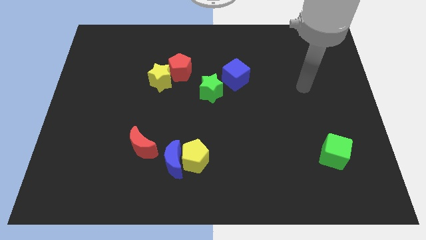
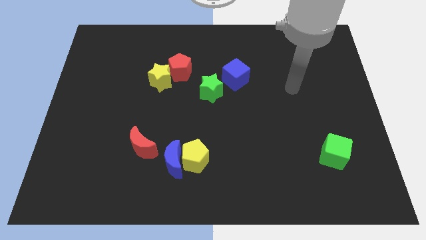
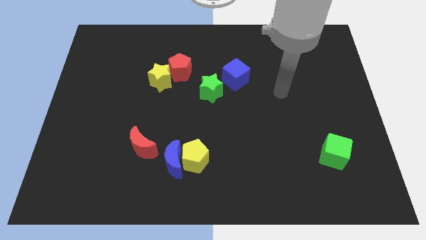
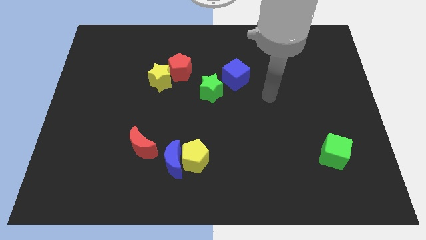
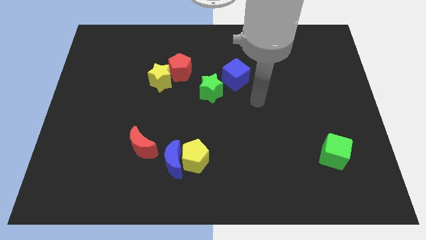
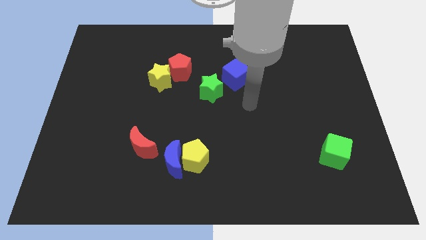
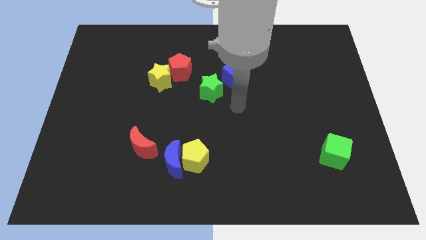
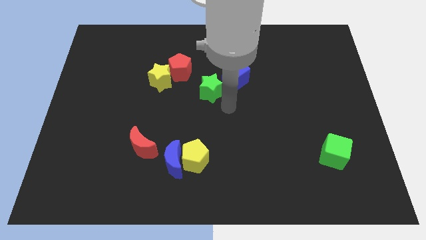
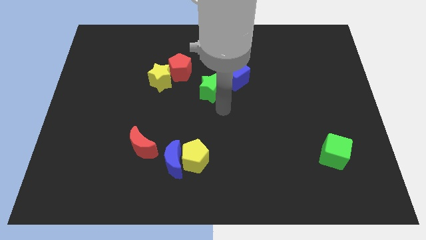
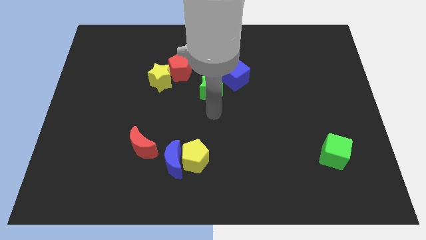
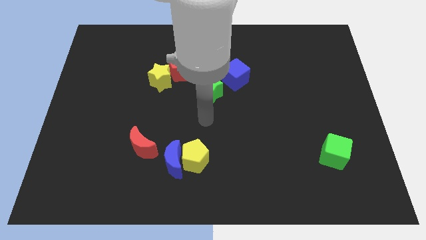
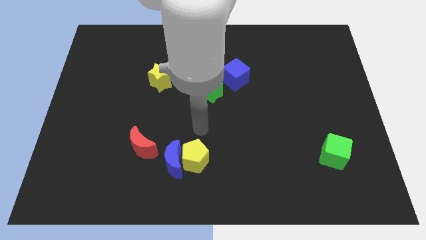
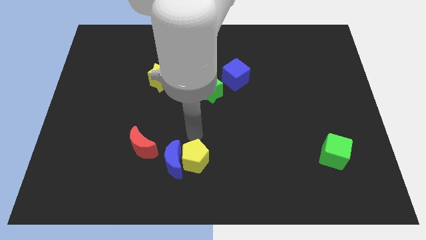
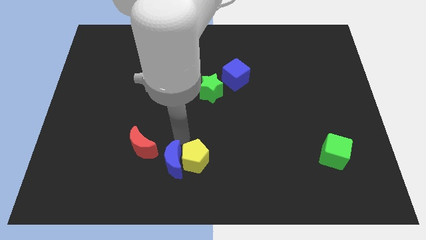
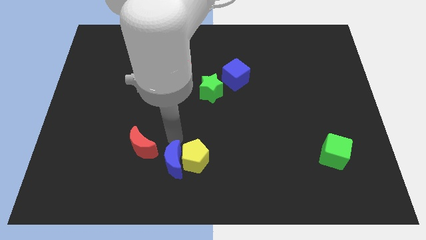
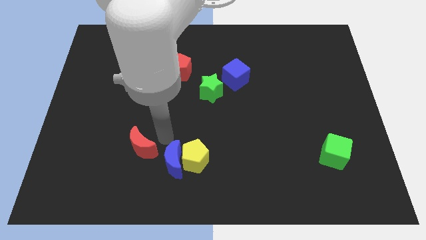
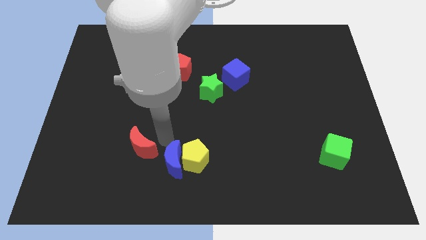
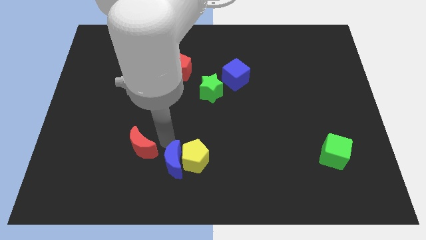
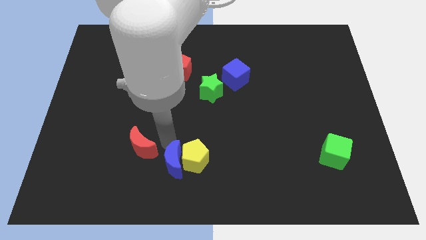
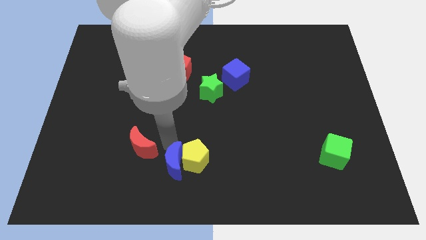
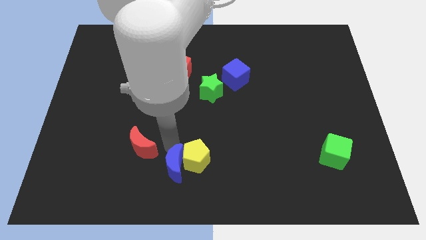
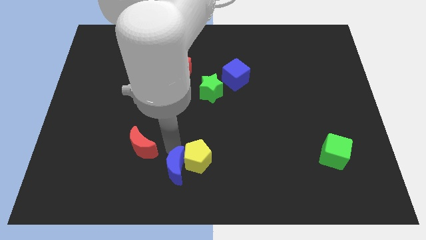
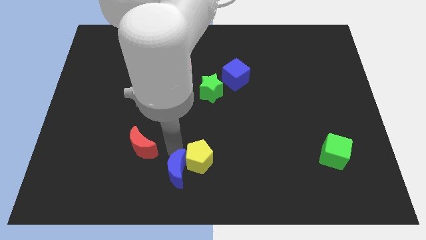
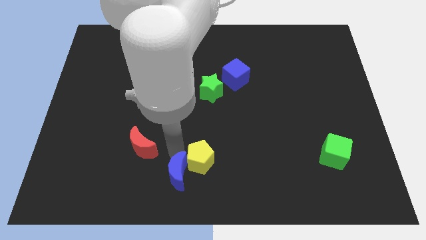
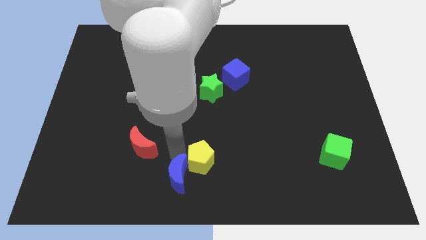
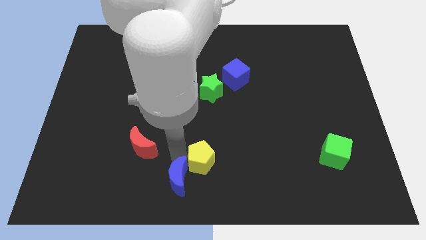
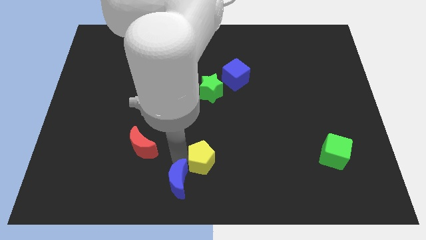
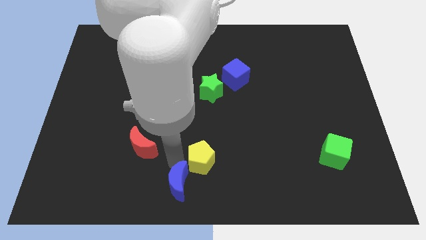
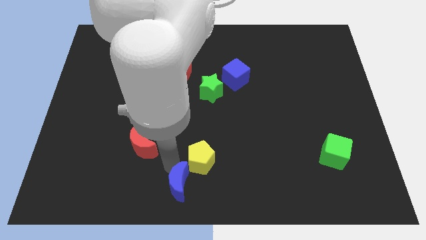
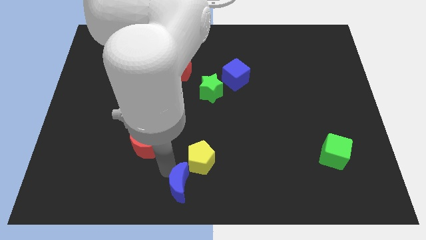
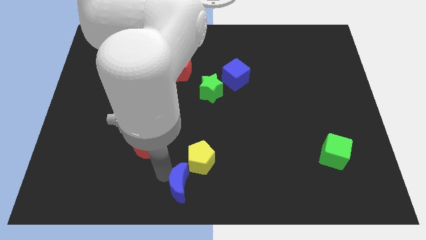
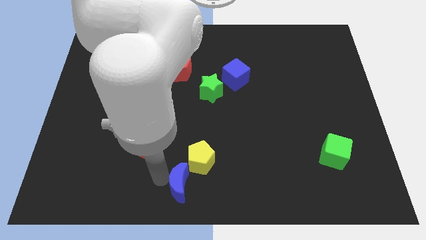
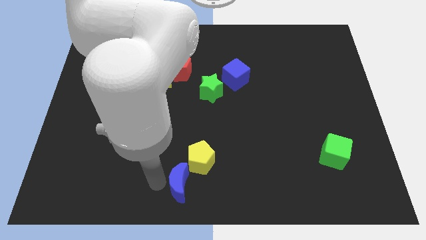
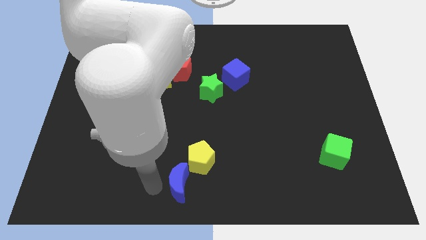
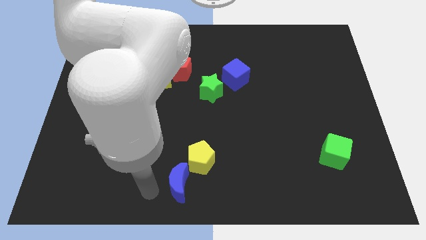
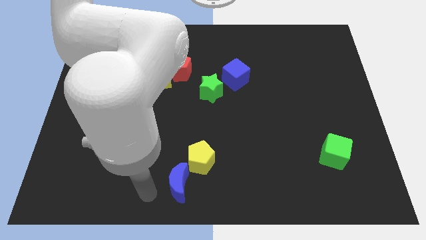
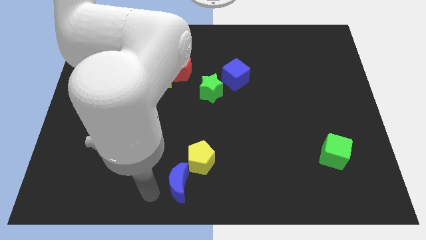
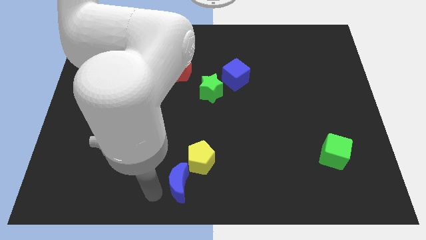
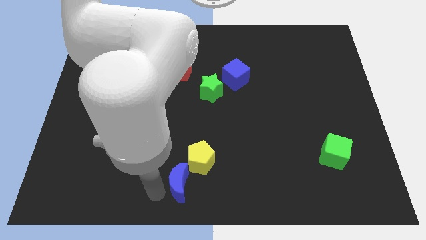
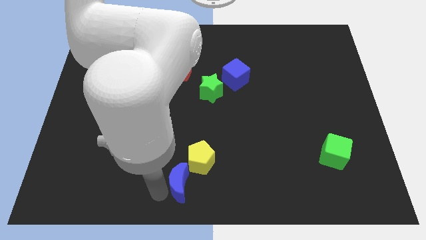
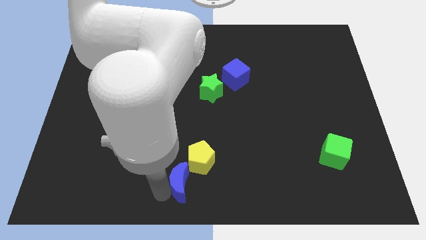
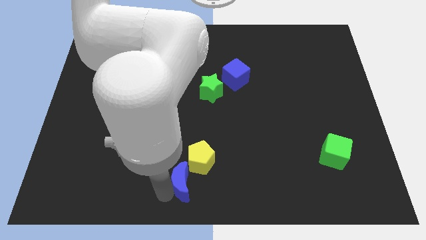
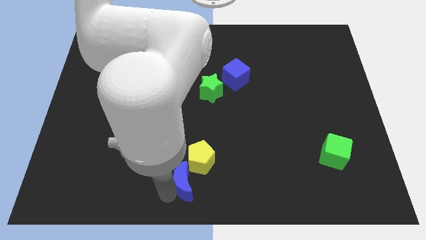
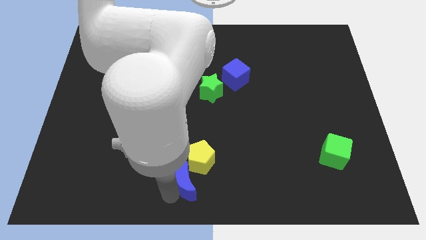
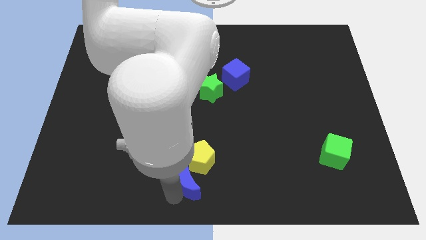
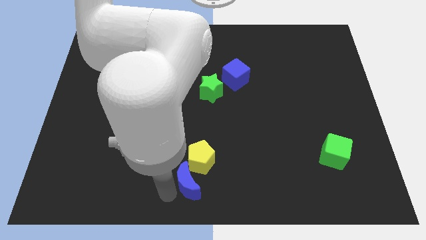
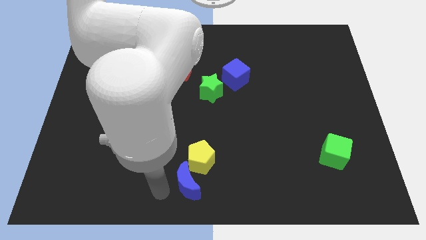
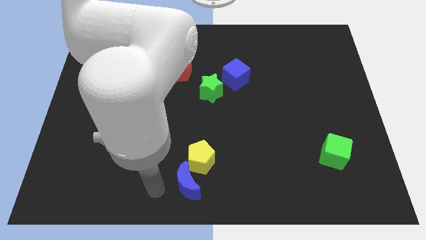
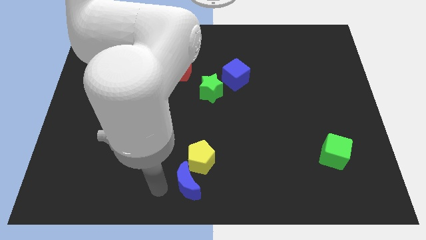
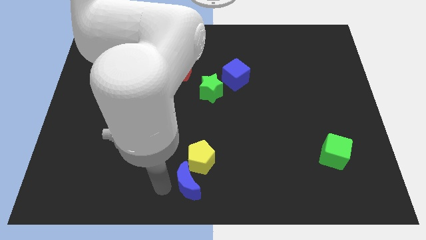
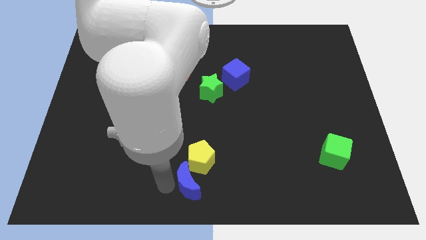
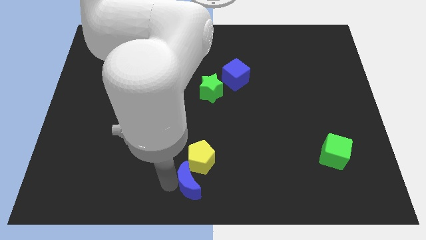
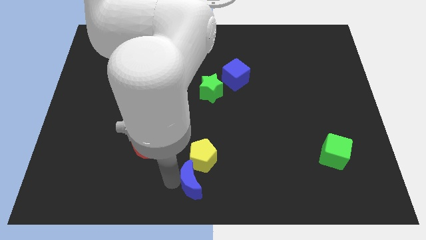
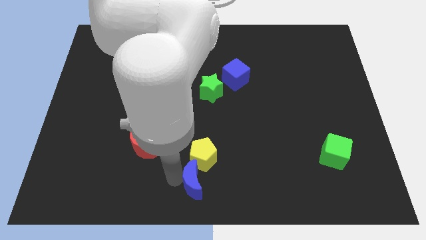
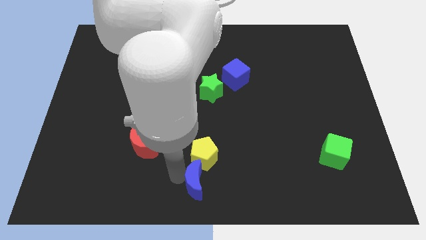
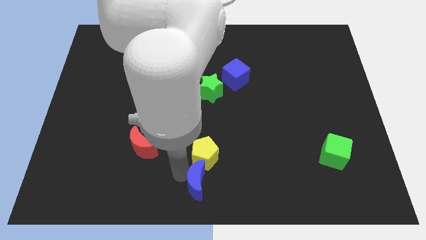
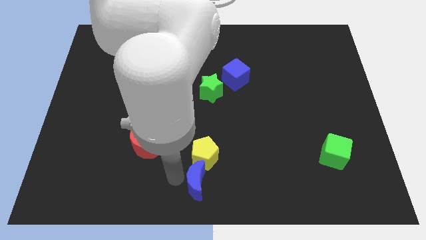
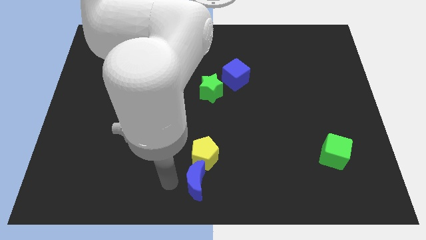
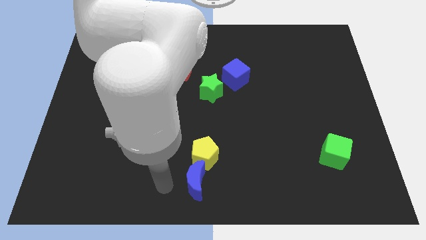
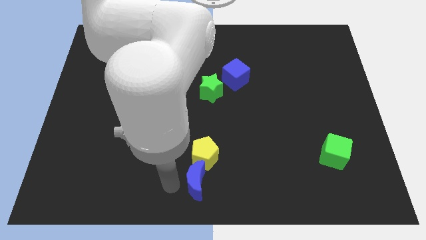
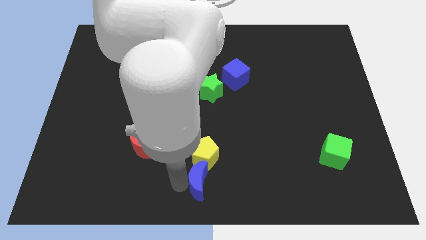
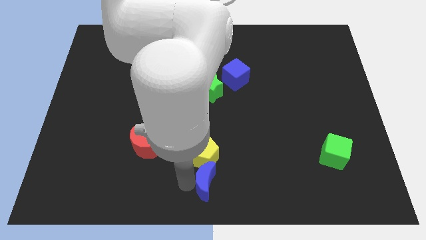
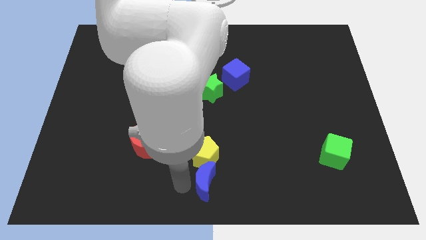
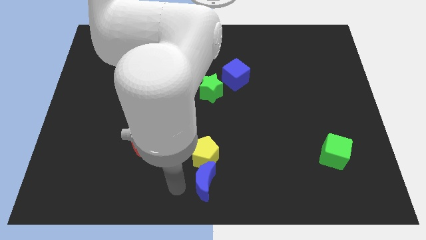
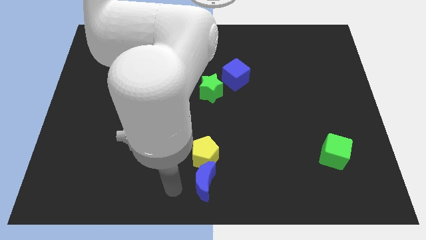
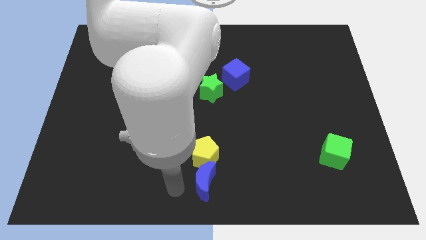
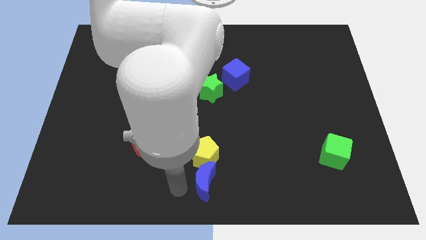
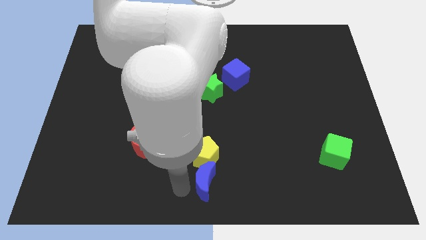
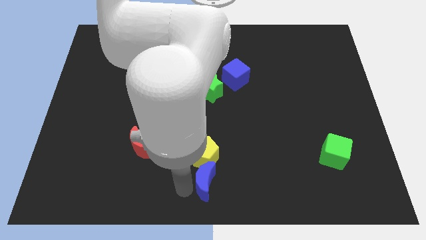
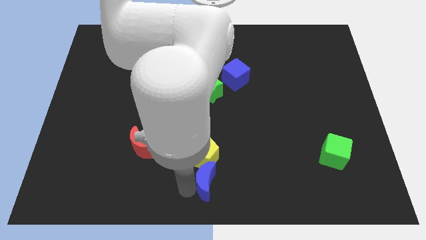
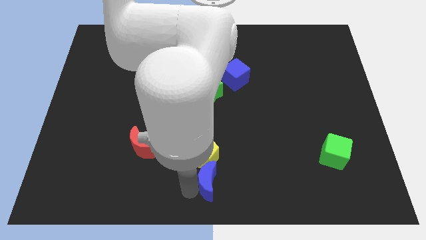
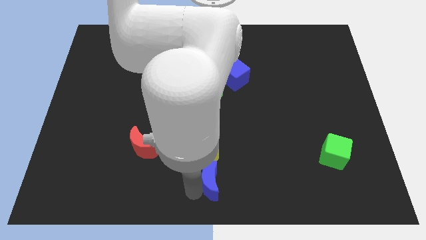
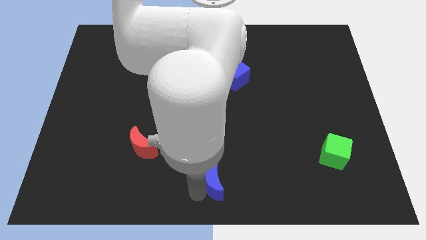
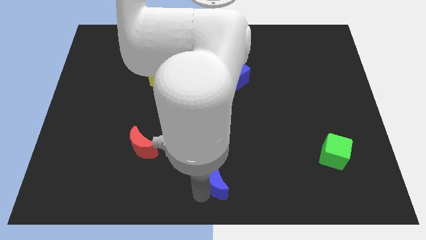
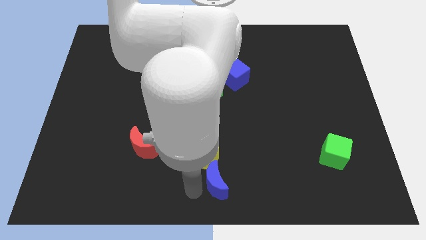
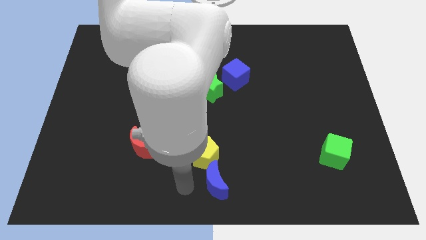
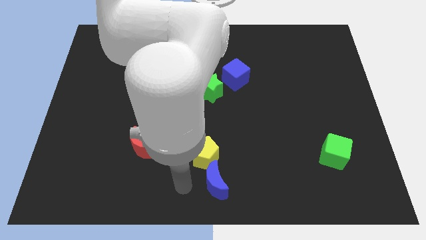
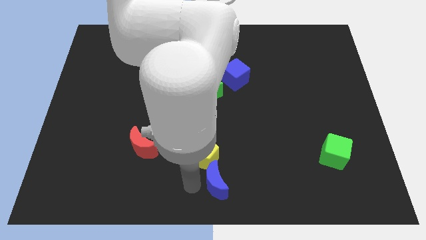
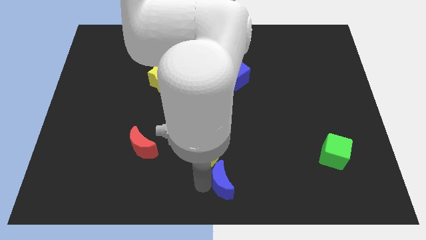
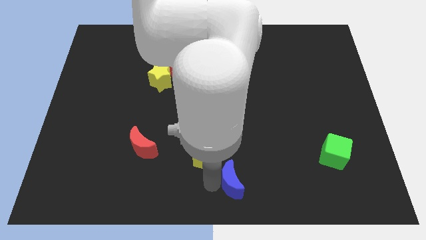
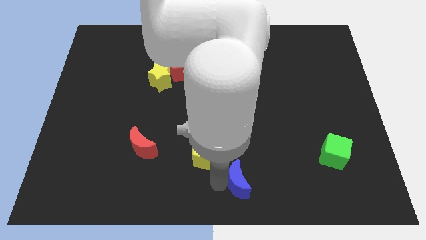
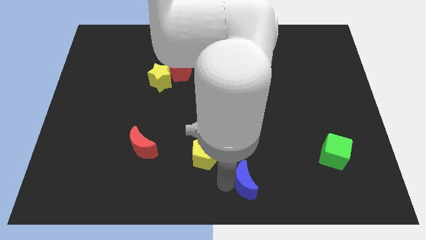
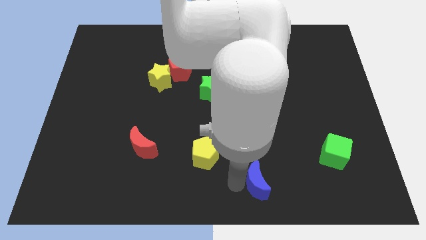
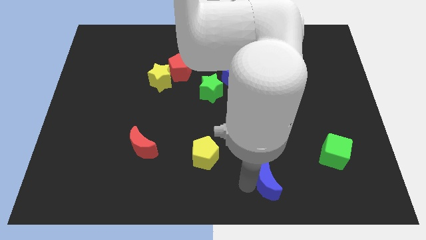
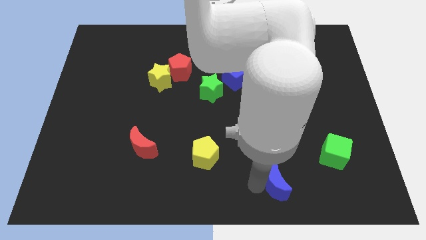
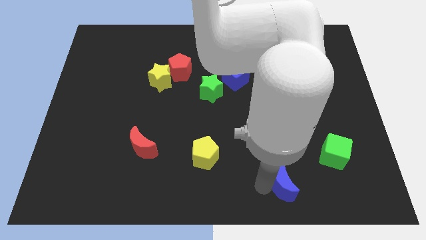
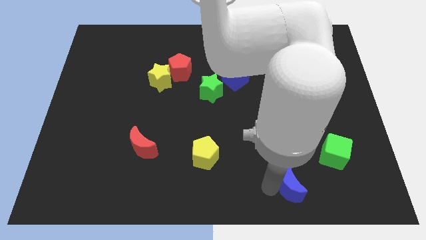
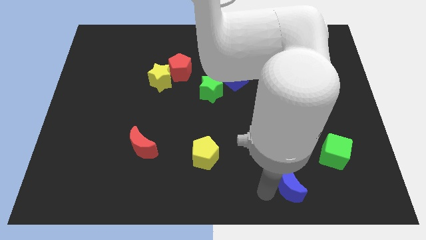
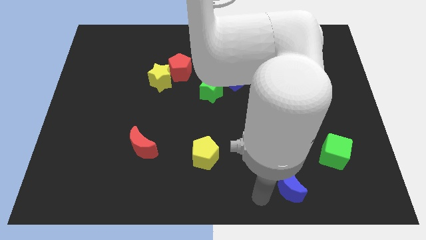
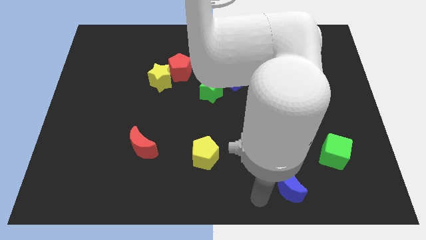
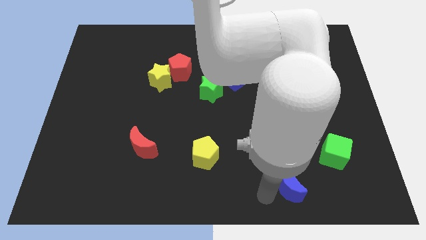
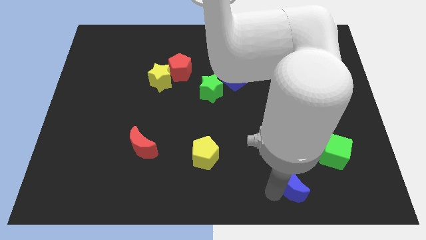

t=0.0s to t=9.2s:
move the blue moon diagonally down and to the left of the green cube
